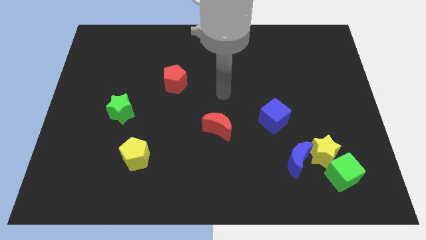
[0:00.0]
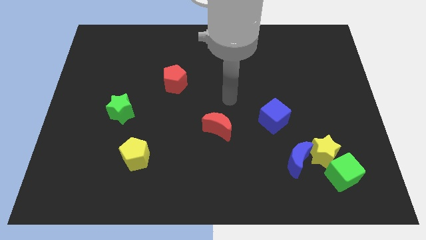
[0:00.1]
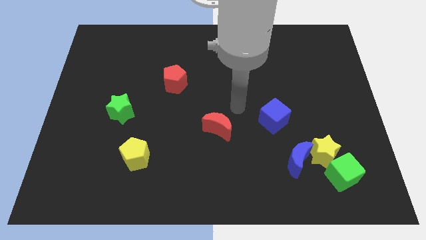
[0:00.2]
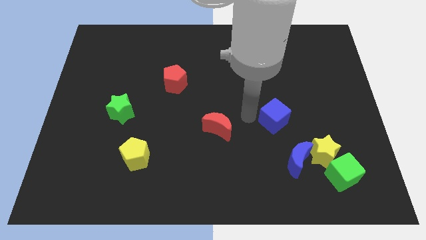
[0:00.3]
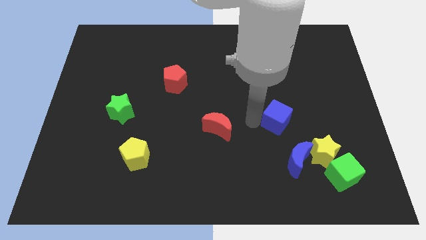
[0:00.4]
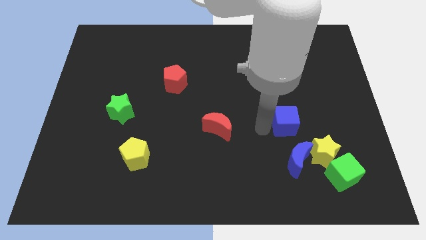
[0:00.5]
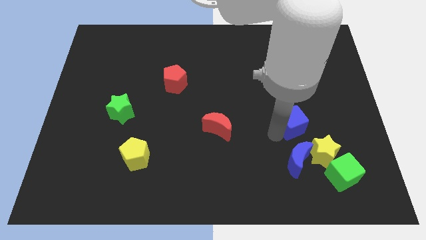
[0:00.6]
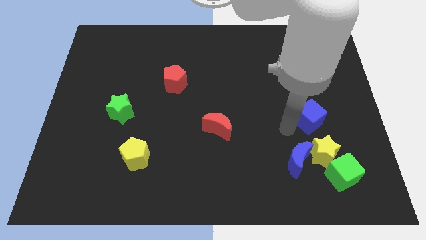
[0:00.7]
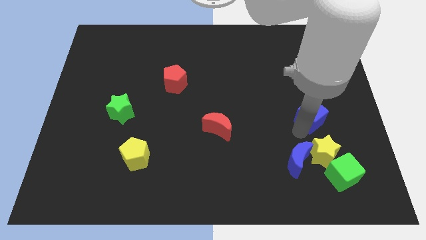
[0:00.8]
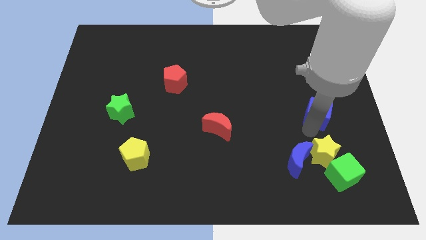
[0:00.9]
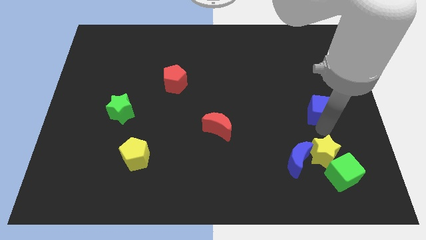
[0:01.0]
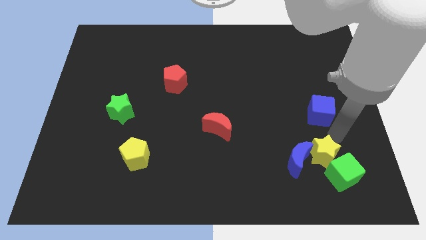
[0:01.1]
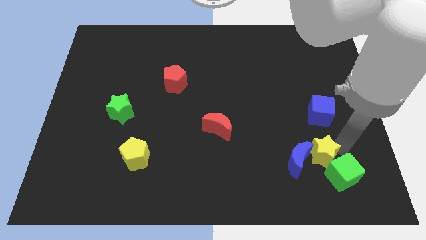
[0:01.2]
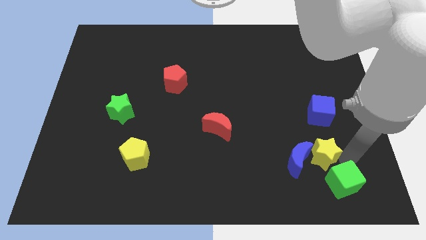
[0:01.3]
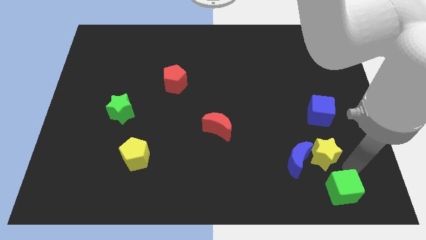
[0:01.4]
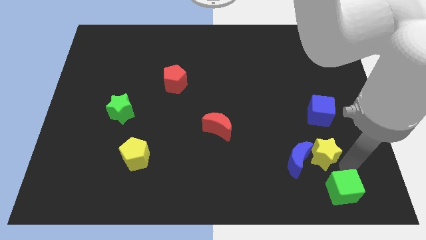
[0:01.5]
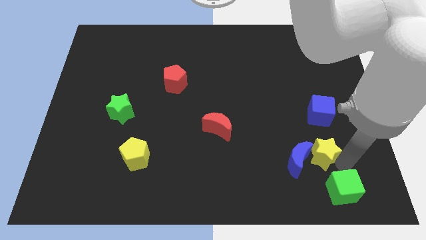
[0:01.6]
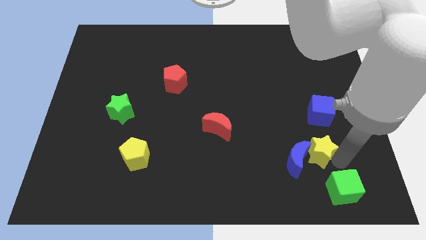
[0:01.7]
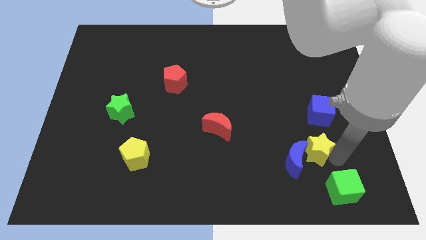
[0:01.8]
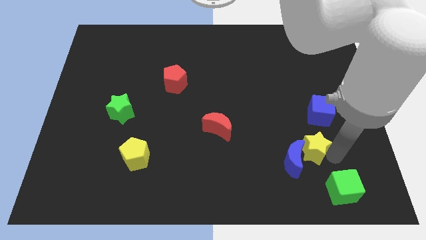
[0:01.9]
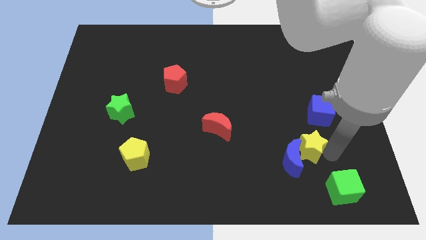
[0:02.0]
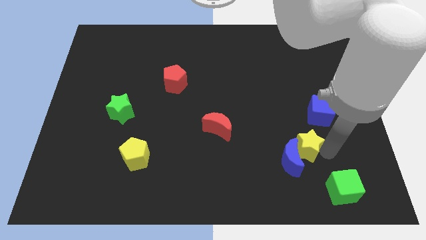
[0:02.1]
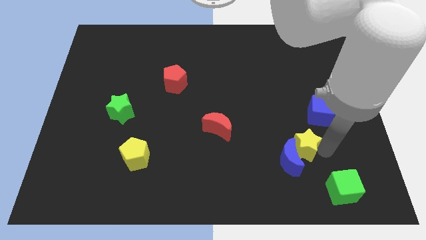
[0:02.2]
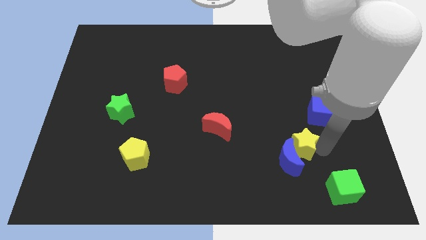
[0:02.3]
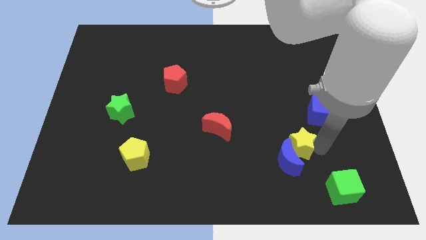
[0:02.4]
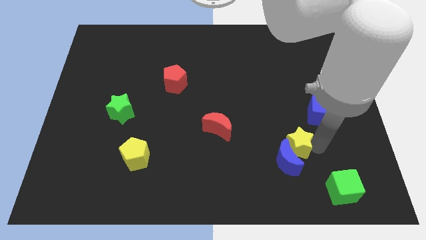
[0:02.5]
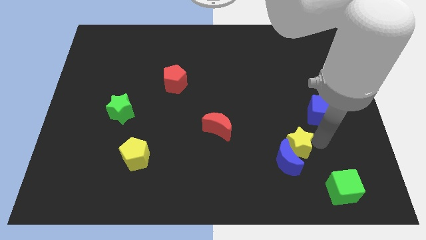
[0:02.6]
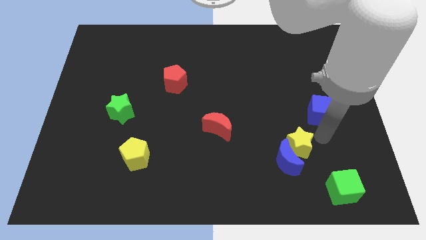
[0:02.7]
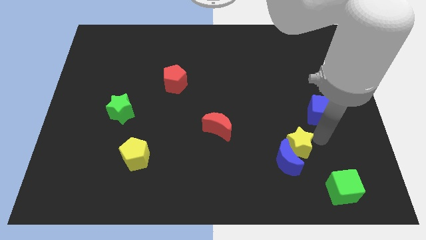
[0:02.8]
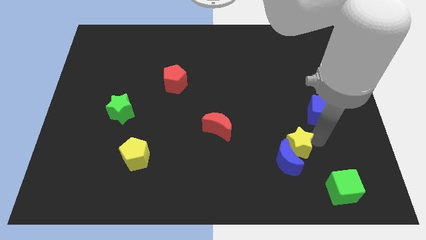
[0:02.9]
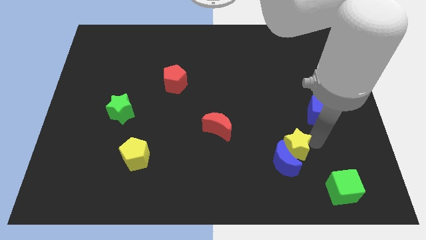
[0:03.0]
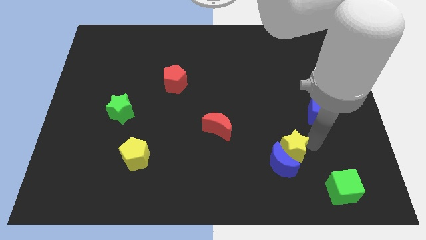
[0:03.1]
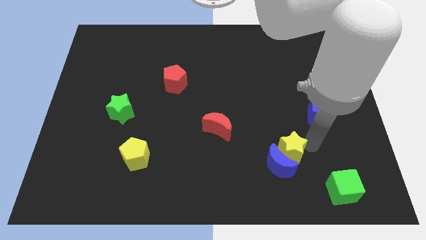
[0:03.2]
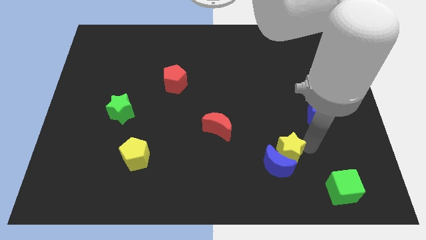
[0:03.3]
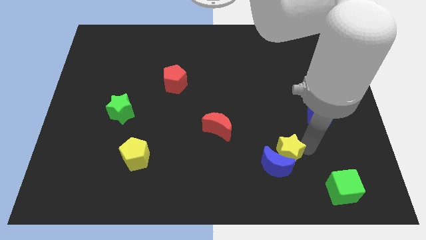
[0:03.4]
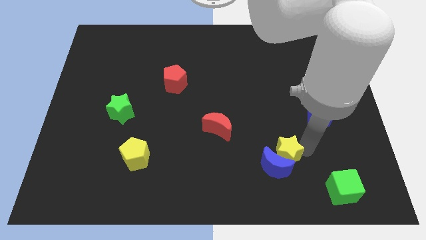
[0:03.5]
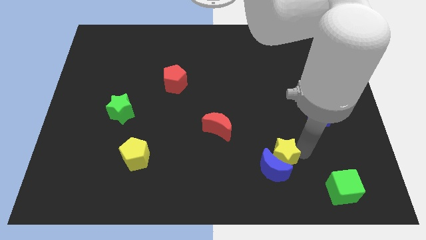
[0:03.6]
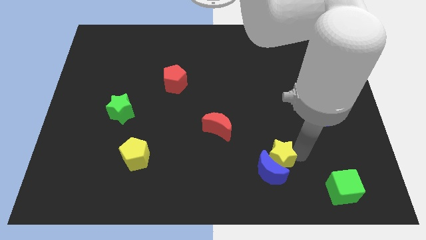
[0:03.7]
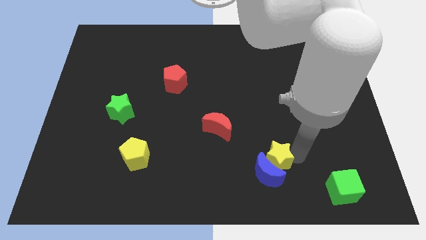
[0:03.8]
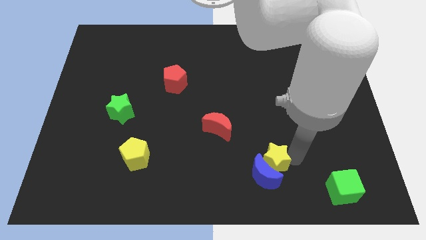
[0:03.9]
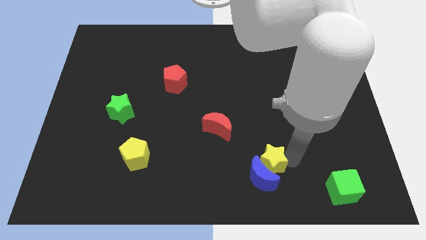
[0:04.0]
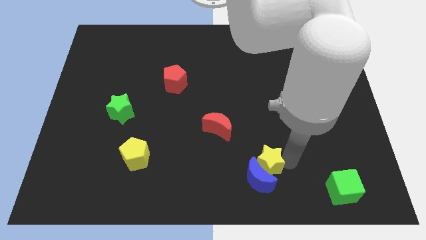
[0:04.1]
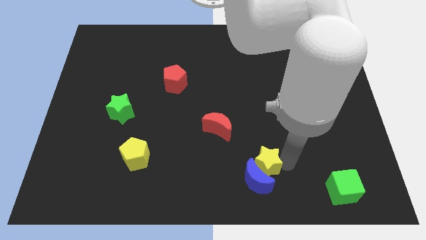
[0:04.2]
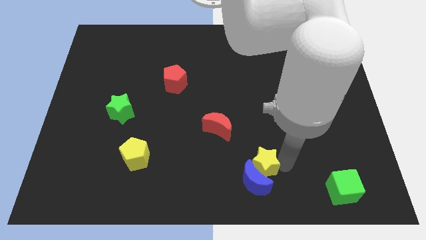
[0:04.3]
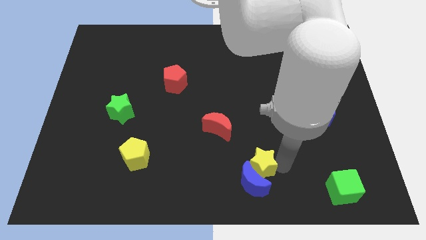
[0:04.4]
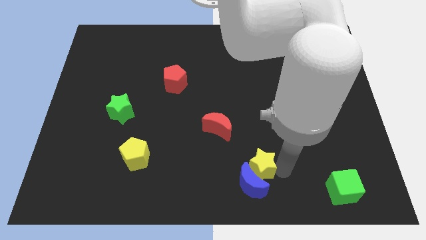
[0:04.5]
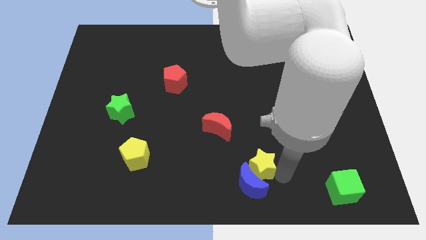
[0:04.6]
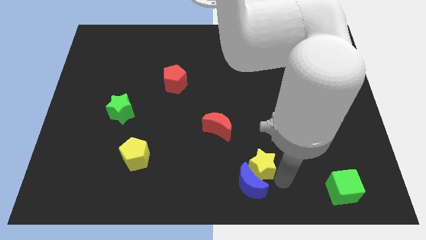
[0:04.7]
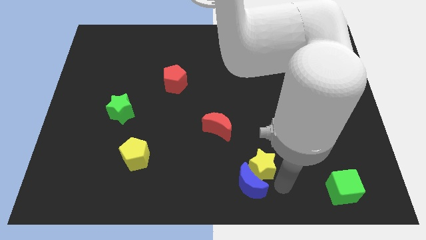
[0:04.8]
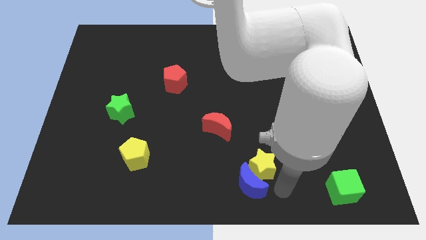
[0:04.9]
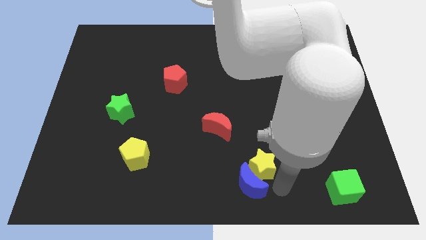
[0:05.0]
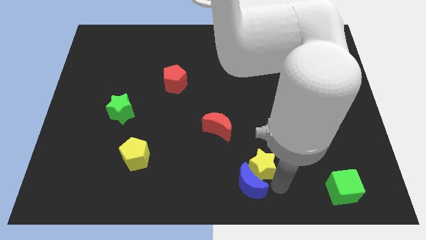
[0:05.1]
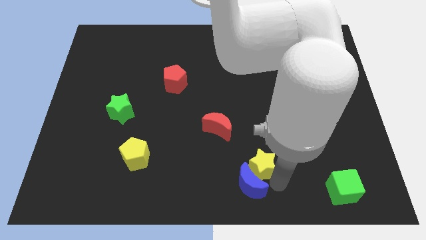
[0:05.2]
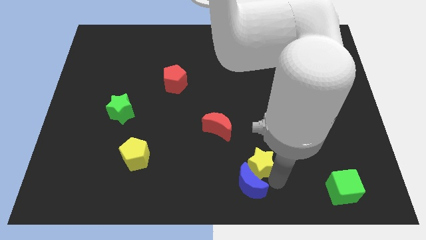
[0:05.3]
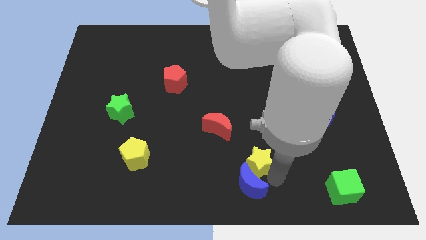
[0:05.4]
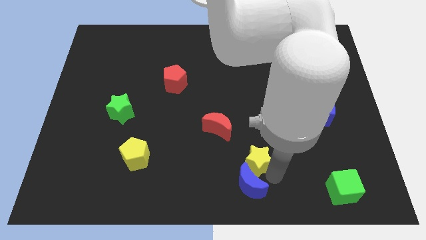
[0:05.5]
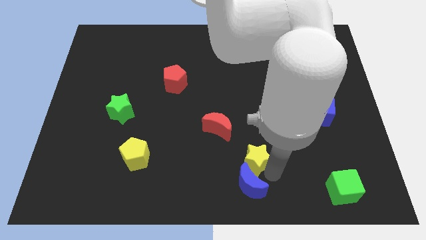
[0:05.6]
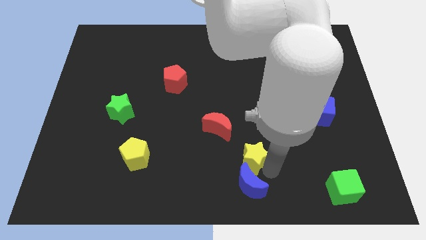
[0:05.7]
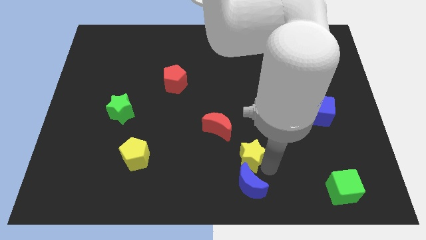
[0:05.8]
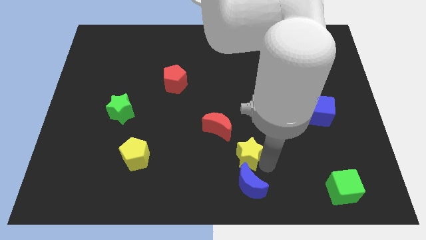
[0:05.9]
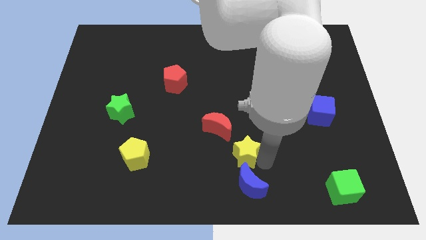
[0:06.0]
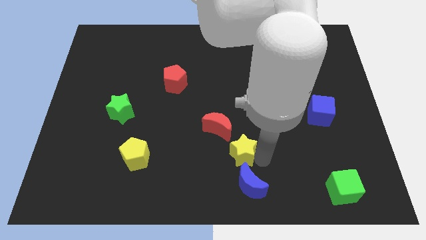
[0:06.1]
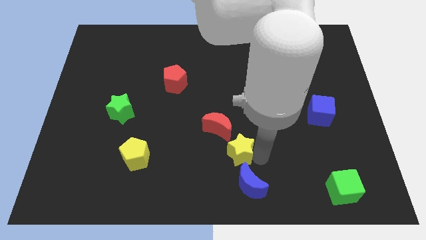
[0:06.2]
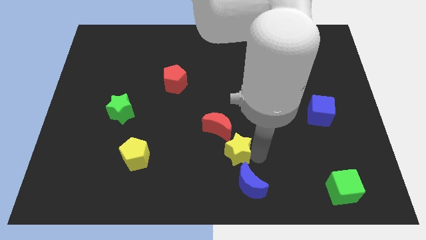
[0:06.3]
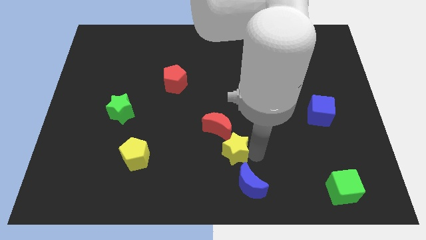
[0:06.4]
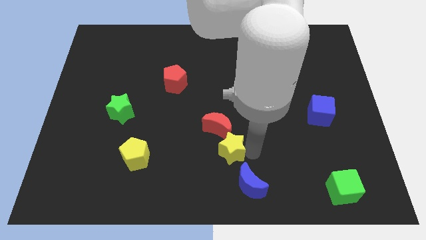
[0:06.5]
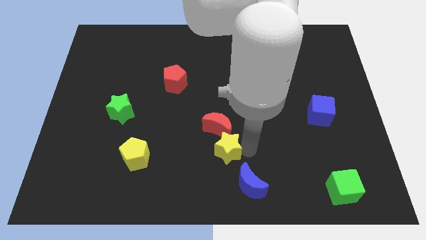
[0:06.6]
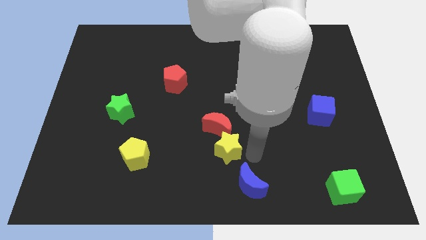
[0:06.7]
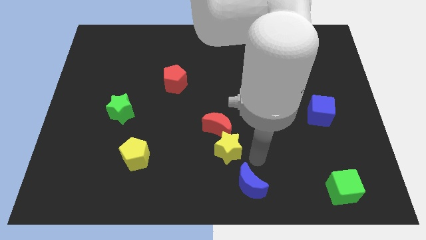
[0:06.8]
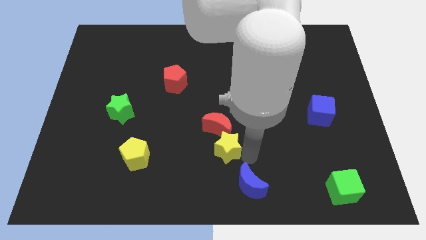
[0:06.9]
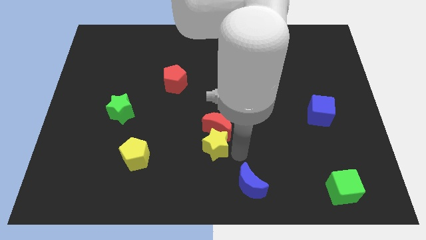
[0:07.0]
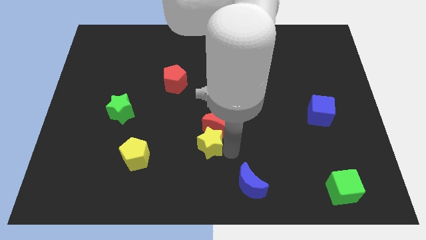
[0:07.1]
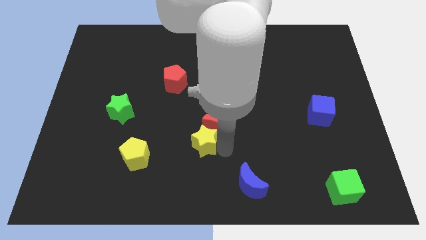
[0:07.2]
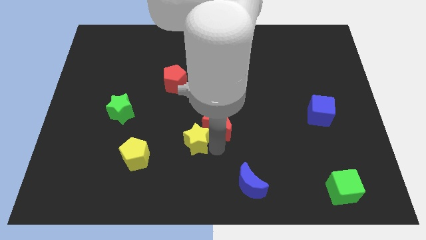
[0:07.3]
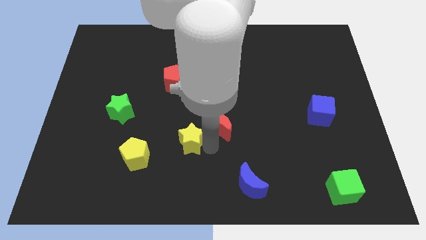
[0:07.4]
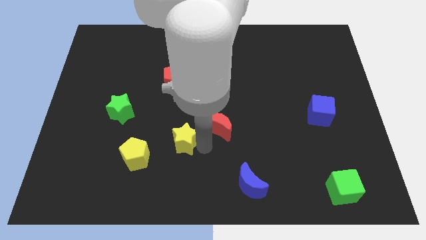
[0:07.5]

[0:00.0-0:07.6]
move the yellow star to the top right side of the yellow pentagon
